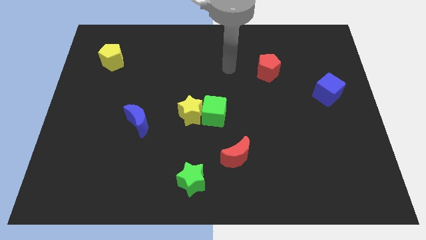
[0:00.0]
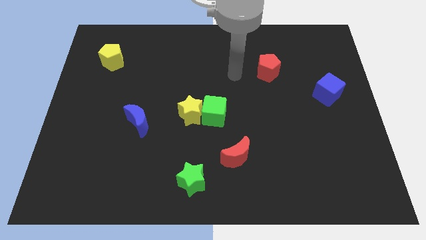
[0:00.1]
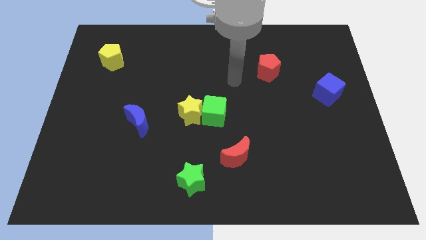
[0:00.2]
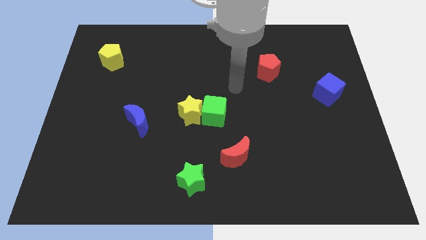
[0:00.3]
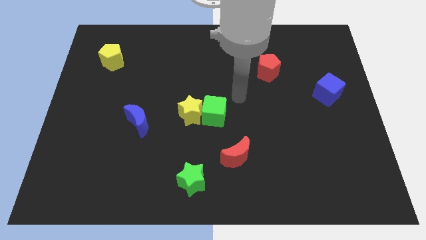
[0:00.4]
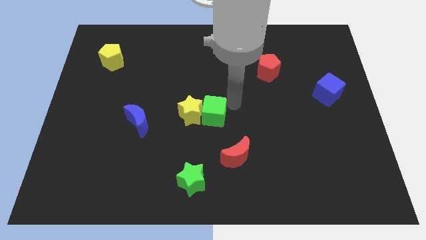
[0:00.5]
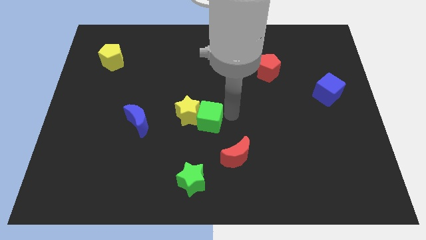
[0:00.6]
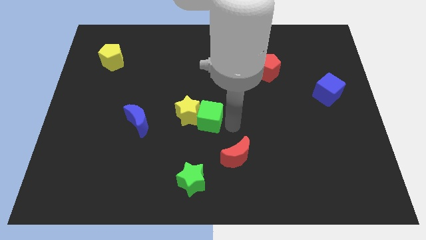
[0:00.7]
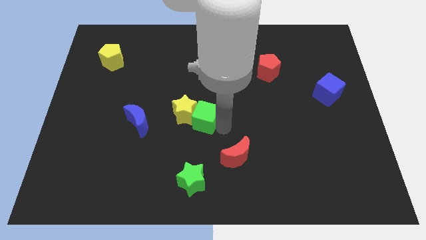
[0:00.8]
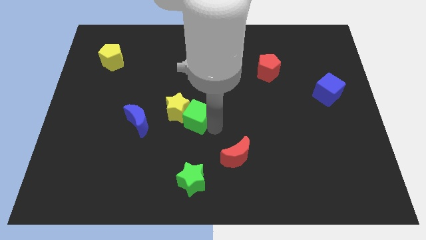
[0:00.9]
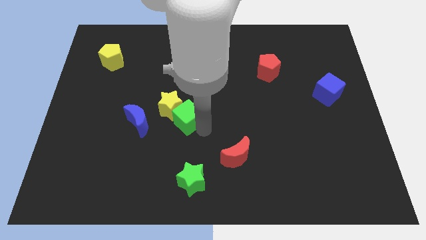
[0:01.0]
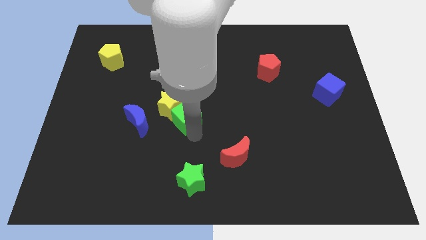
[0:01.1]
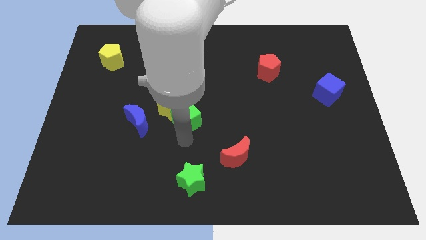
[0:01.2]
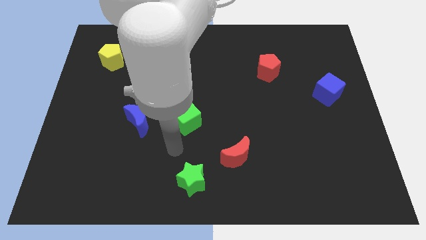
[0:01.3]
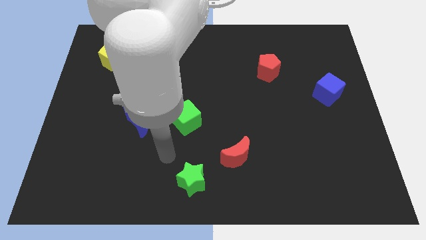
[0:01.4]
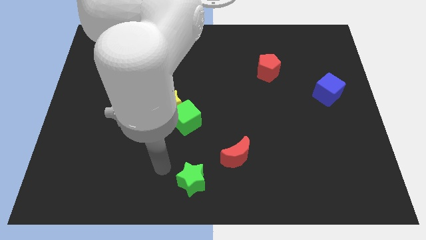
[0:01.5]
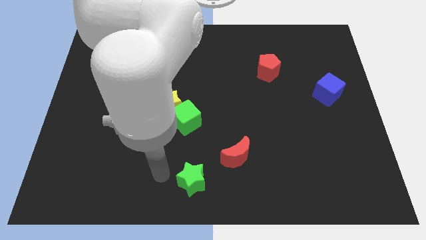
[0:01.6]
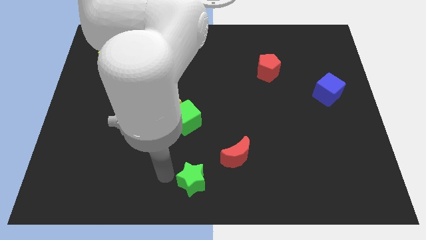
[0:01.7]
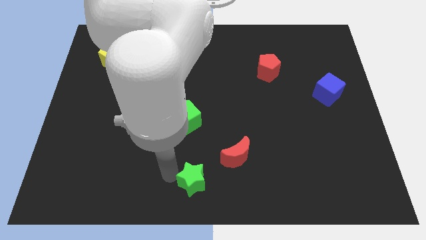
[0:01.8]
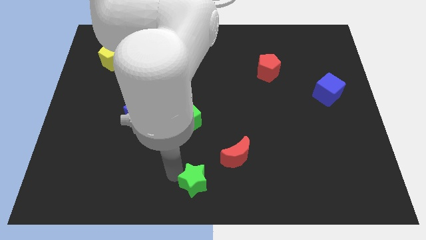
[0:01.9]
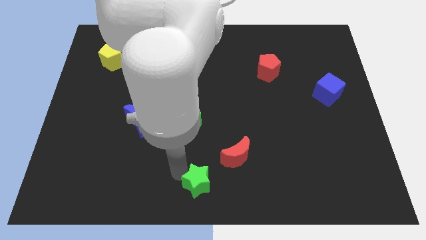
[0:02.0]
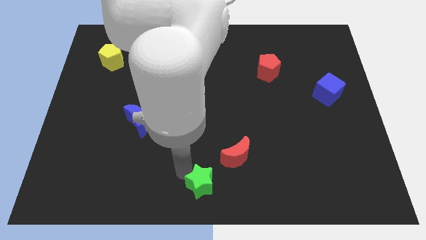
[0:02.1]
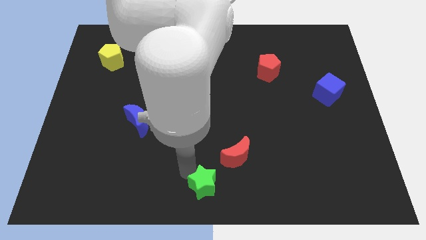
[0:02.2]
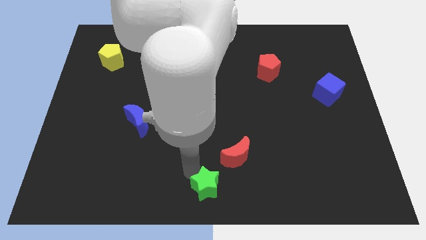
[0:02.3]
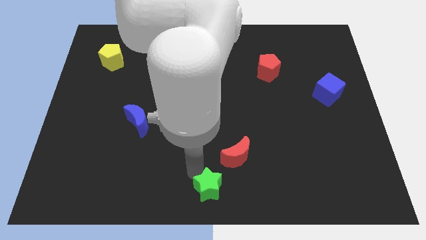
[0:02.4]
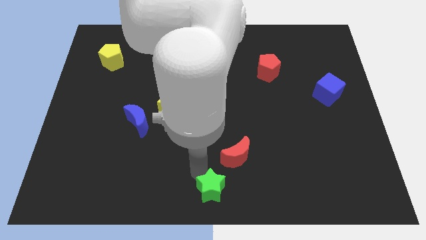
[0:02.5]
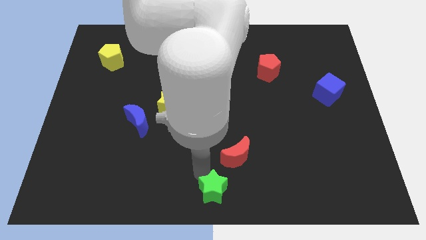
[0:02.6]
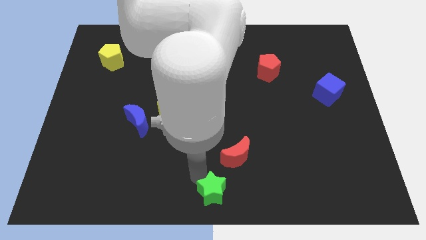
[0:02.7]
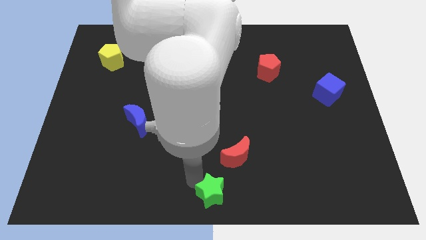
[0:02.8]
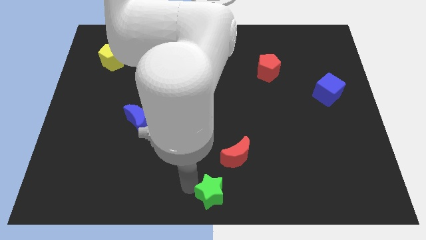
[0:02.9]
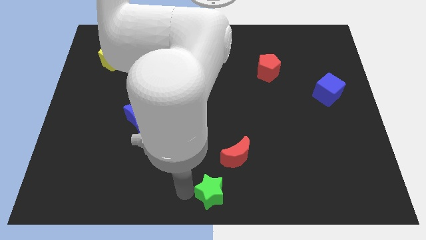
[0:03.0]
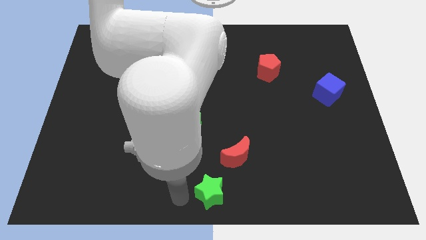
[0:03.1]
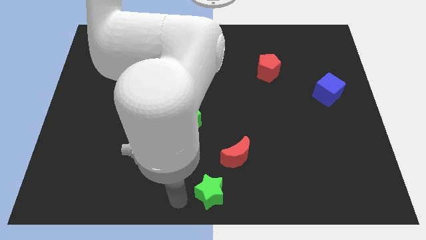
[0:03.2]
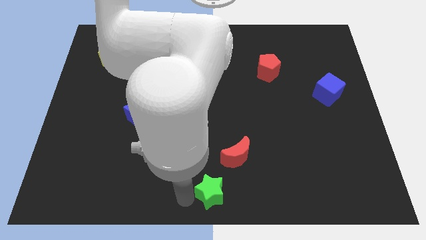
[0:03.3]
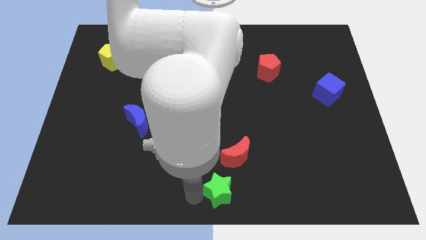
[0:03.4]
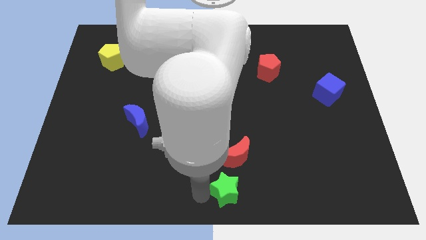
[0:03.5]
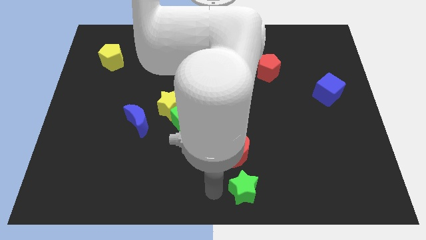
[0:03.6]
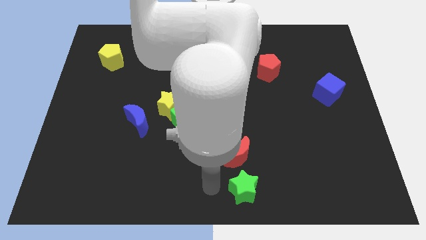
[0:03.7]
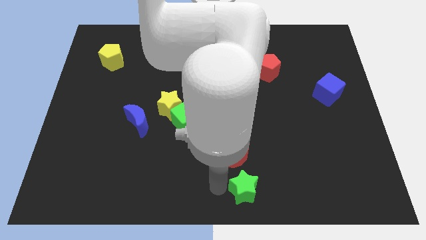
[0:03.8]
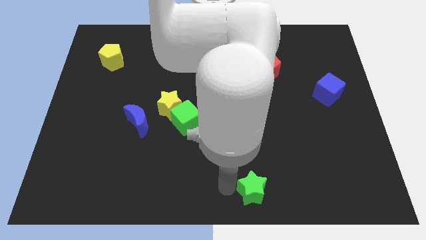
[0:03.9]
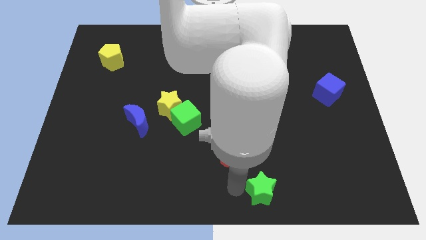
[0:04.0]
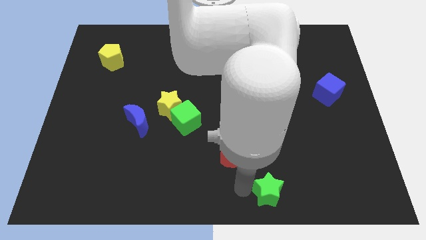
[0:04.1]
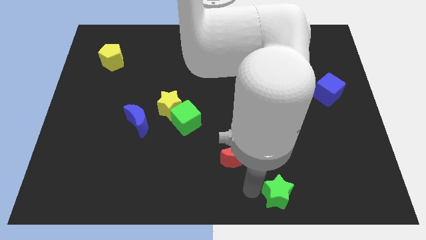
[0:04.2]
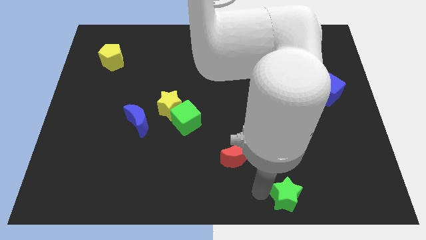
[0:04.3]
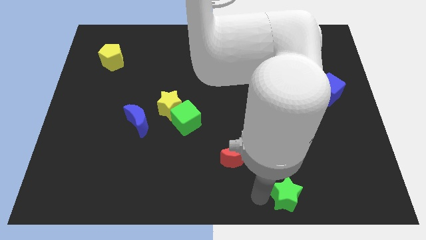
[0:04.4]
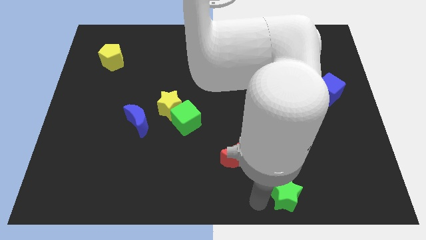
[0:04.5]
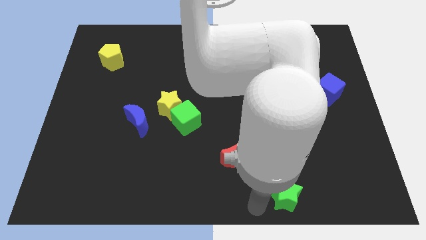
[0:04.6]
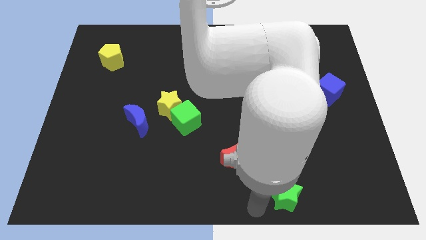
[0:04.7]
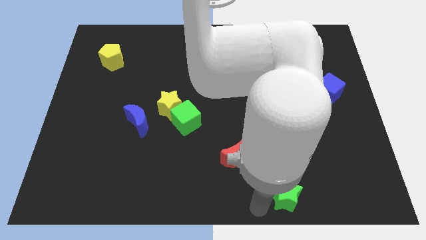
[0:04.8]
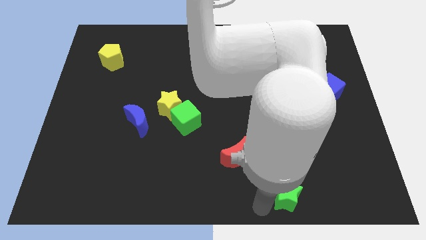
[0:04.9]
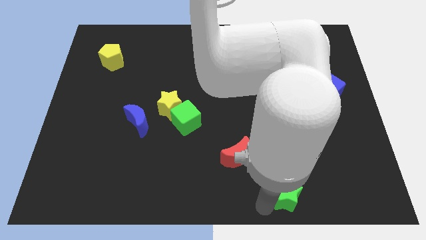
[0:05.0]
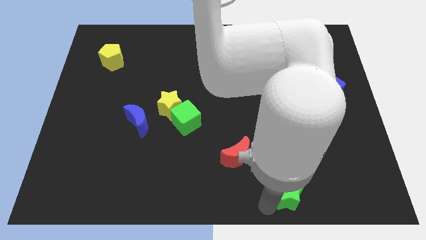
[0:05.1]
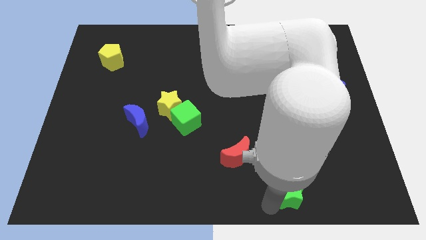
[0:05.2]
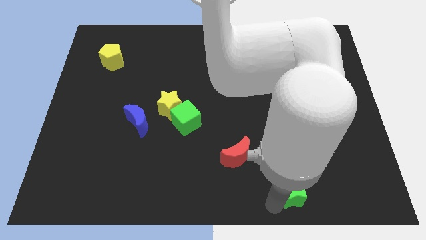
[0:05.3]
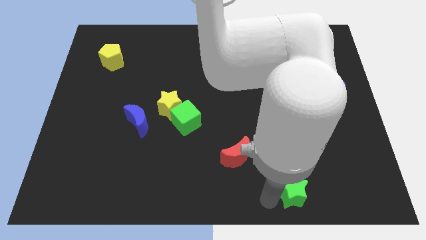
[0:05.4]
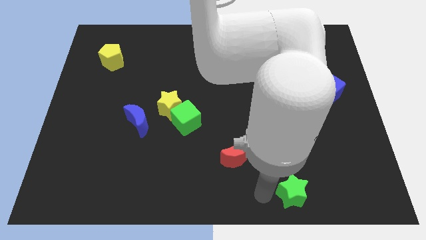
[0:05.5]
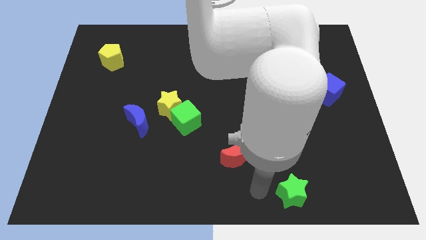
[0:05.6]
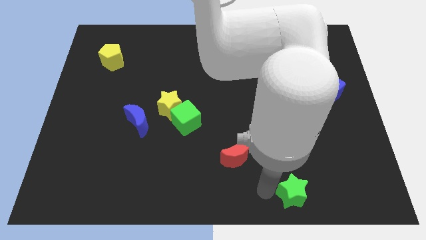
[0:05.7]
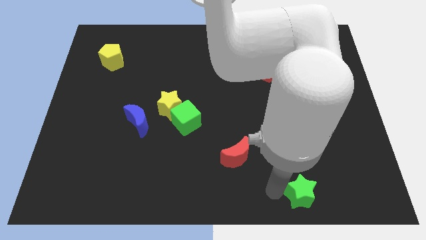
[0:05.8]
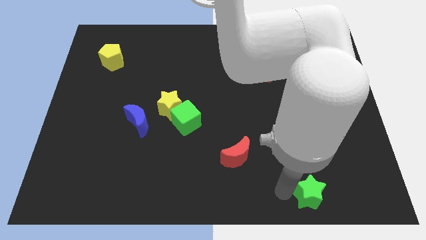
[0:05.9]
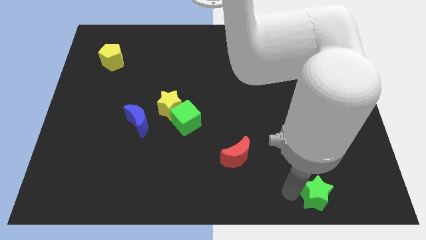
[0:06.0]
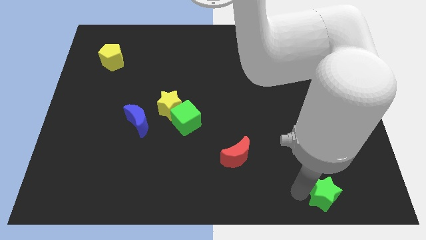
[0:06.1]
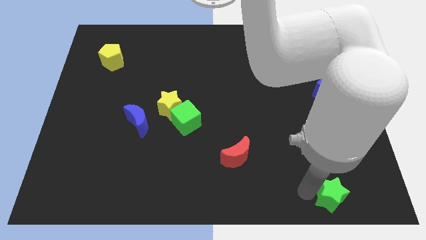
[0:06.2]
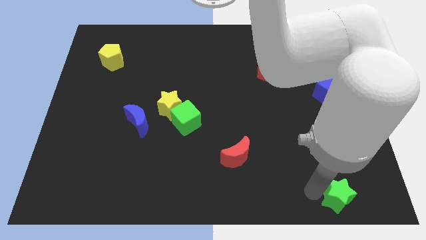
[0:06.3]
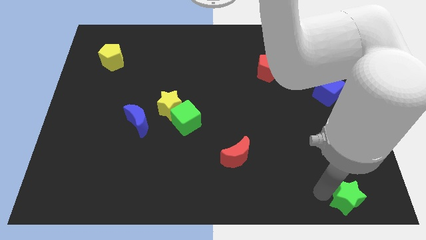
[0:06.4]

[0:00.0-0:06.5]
slide the green star to the lower right corner
